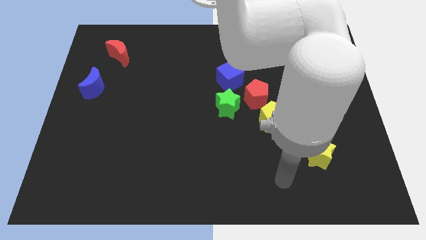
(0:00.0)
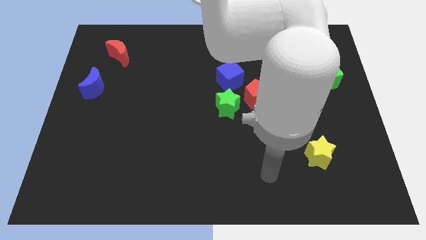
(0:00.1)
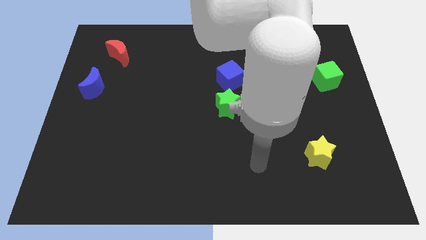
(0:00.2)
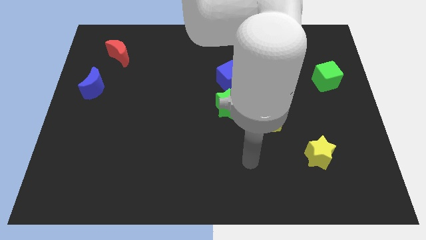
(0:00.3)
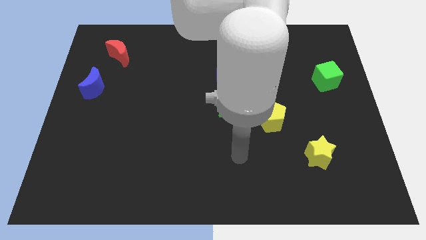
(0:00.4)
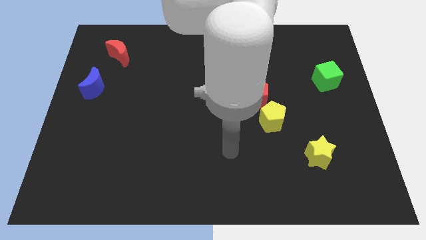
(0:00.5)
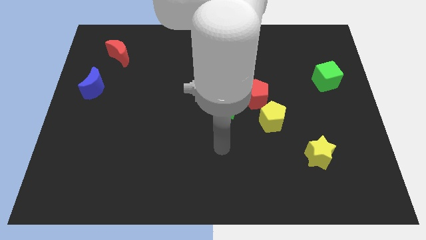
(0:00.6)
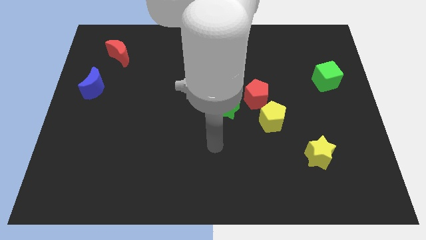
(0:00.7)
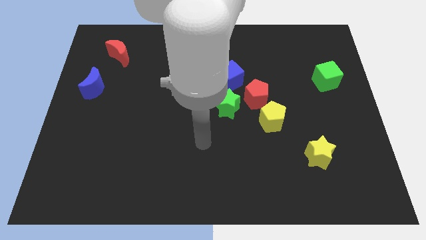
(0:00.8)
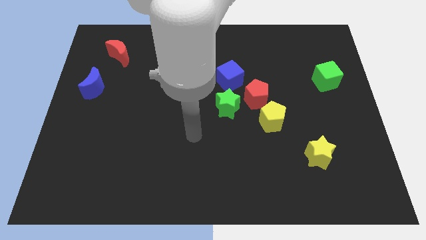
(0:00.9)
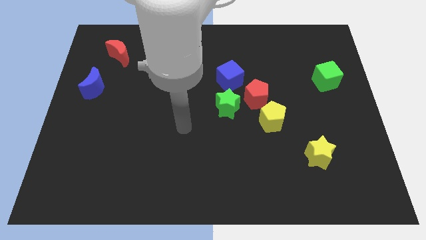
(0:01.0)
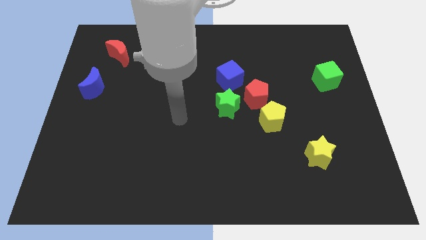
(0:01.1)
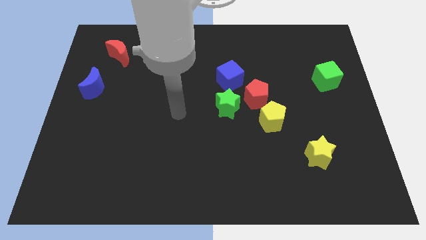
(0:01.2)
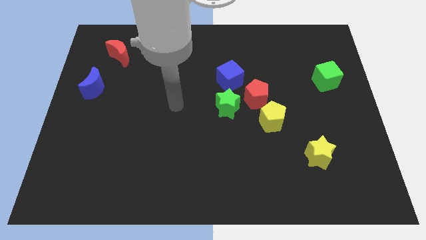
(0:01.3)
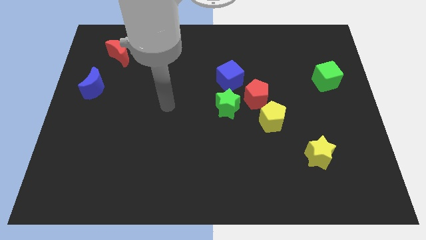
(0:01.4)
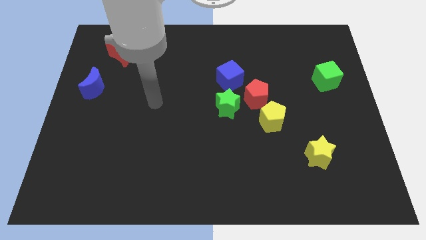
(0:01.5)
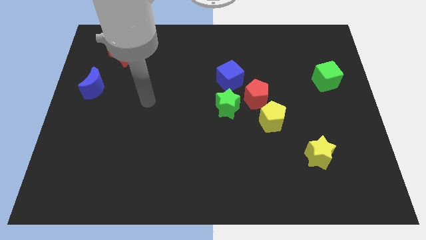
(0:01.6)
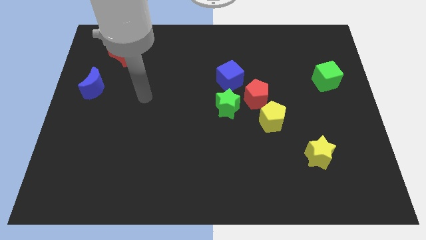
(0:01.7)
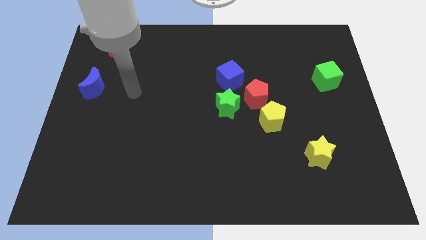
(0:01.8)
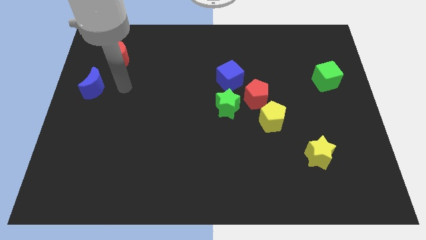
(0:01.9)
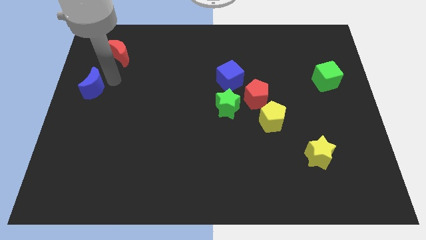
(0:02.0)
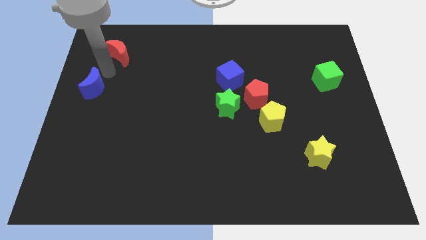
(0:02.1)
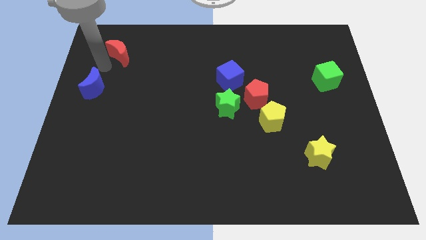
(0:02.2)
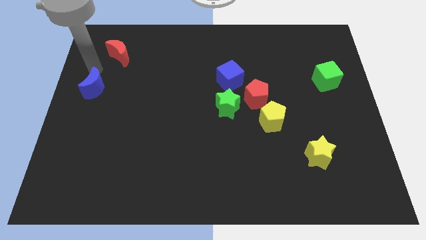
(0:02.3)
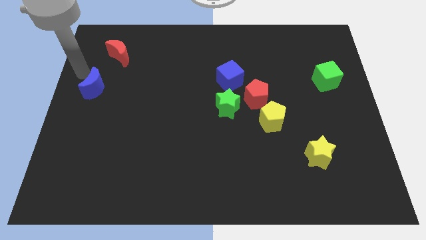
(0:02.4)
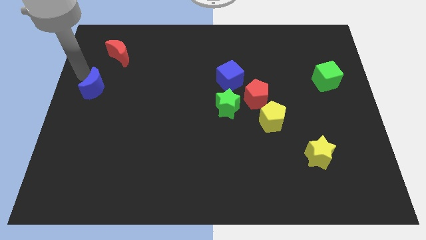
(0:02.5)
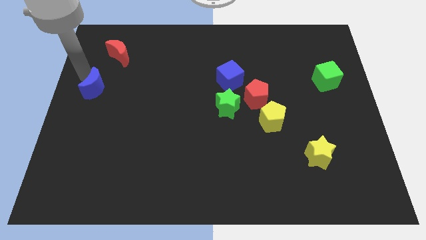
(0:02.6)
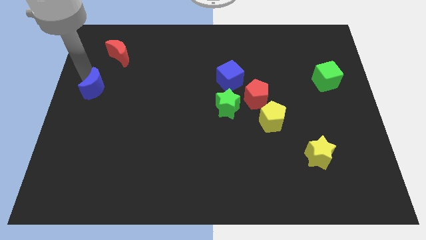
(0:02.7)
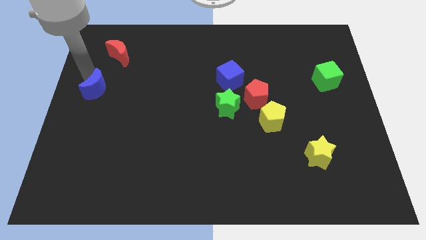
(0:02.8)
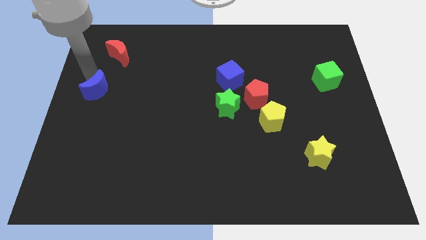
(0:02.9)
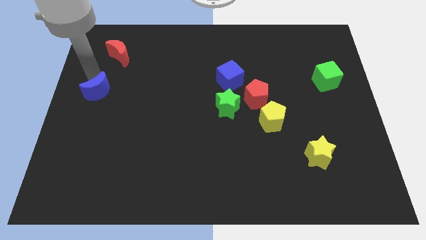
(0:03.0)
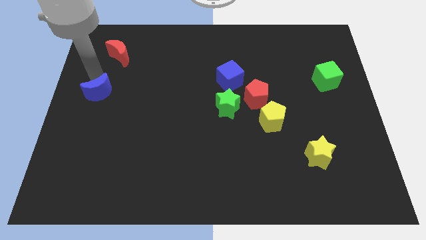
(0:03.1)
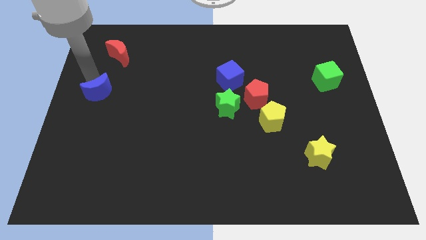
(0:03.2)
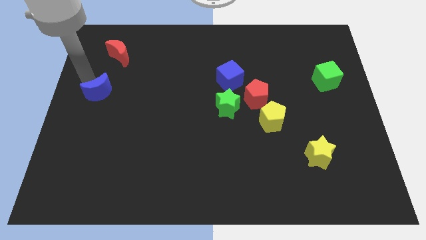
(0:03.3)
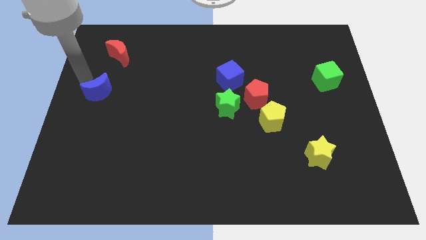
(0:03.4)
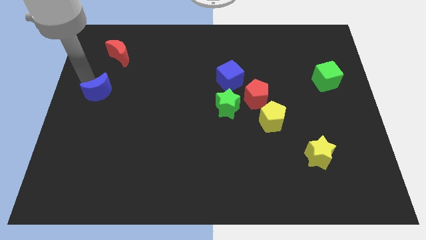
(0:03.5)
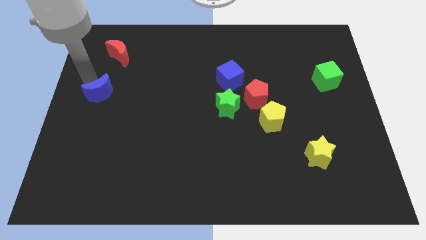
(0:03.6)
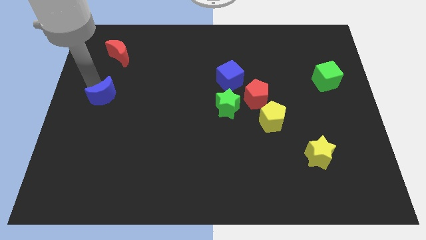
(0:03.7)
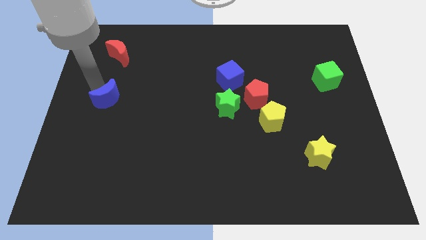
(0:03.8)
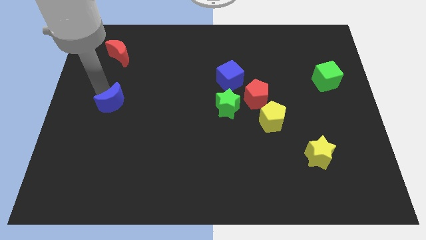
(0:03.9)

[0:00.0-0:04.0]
move the blue moon a little down and right

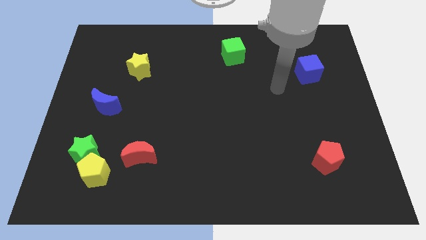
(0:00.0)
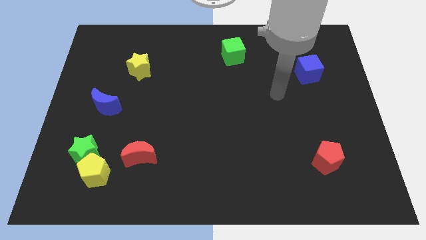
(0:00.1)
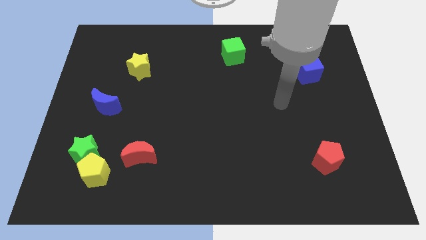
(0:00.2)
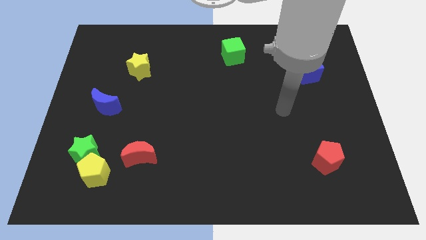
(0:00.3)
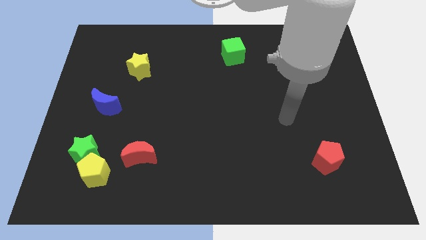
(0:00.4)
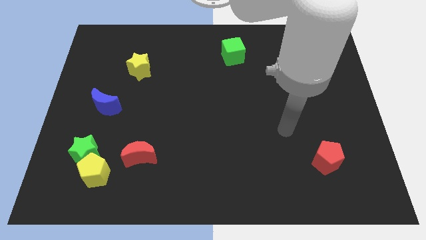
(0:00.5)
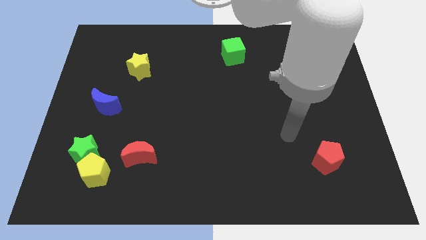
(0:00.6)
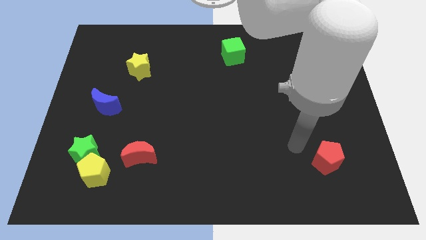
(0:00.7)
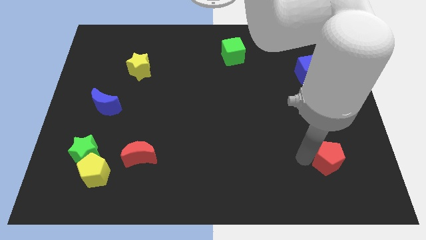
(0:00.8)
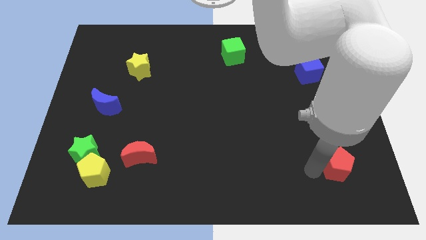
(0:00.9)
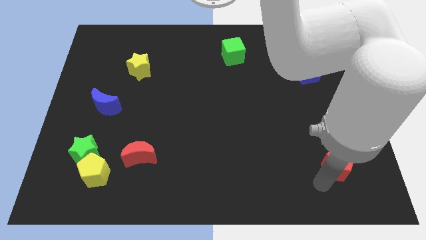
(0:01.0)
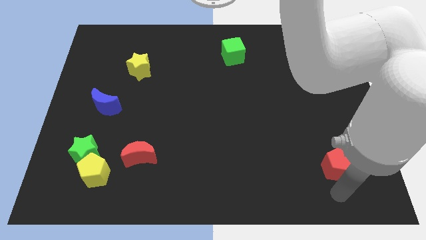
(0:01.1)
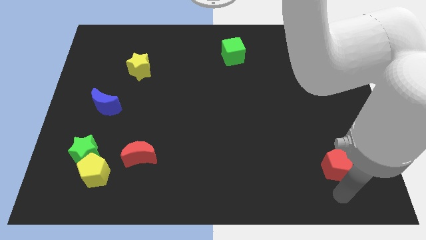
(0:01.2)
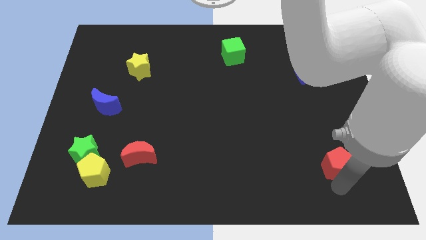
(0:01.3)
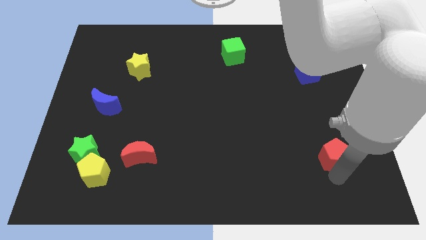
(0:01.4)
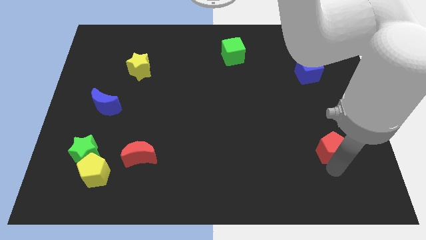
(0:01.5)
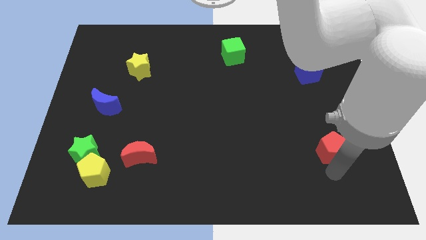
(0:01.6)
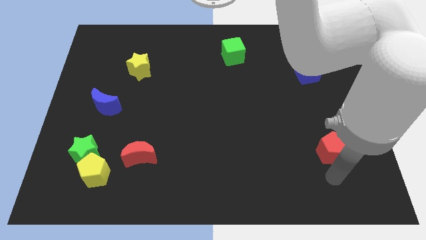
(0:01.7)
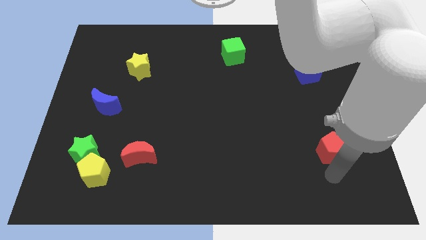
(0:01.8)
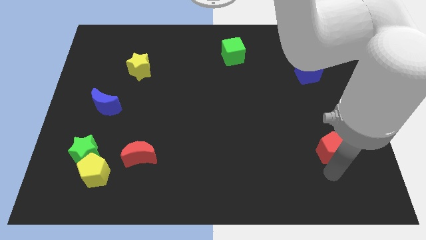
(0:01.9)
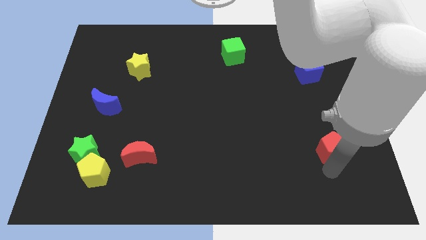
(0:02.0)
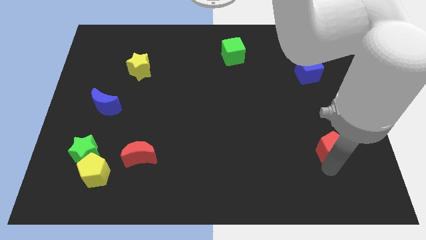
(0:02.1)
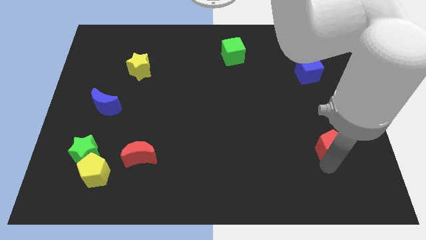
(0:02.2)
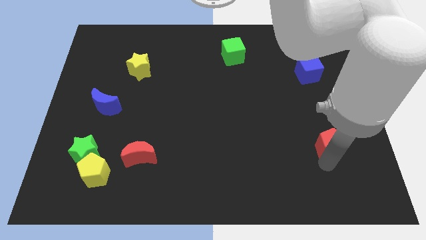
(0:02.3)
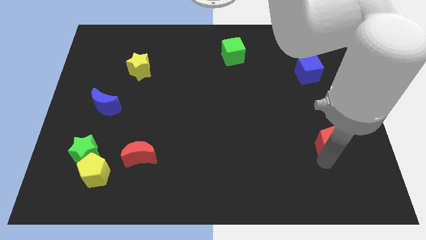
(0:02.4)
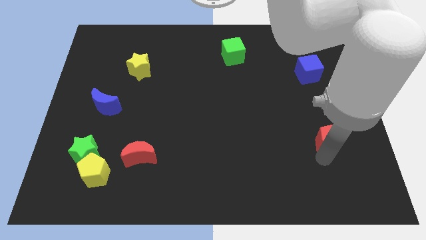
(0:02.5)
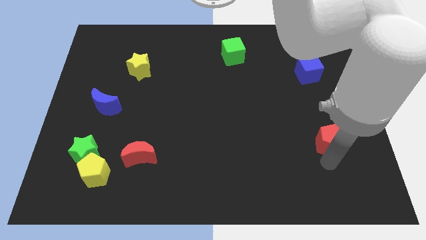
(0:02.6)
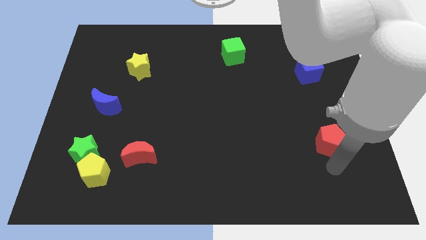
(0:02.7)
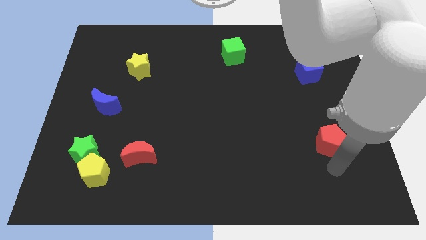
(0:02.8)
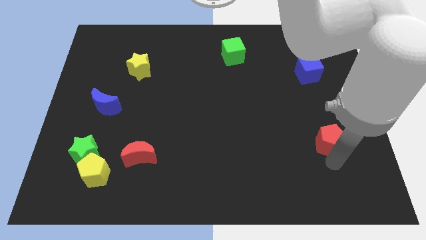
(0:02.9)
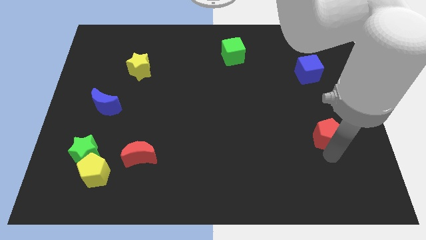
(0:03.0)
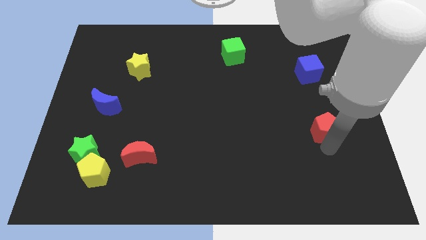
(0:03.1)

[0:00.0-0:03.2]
move the red pentagon a little upwards

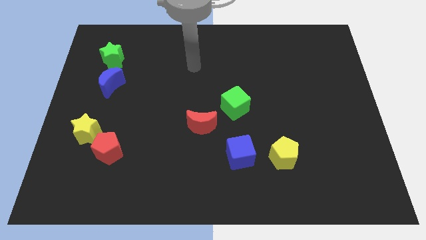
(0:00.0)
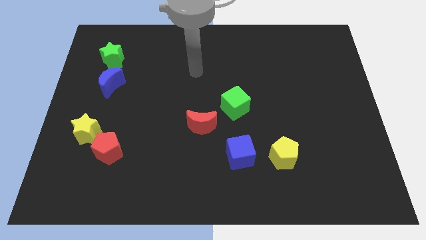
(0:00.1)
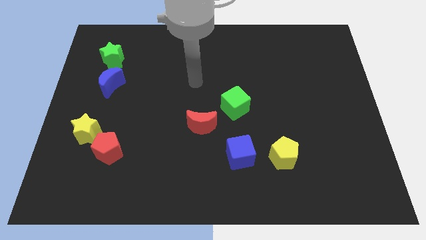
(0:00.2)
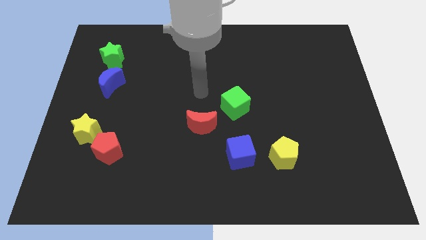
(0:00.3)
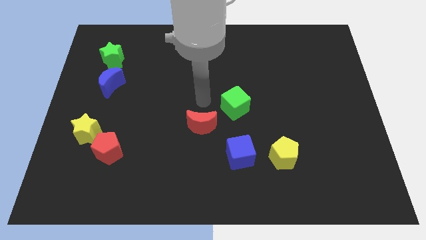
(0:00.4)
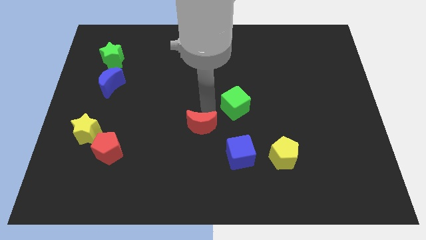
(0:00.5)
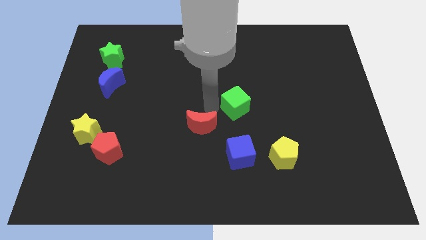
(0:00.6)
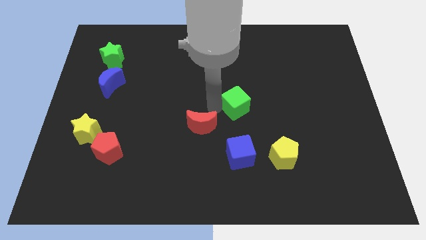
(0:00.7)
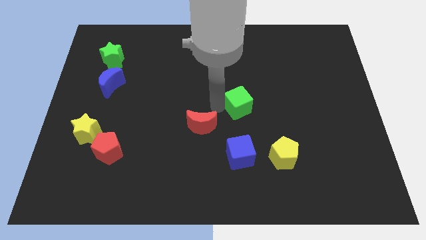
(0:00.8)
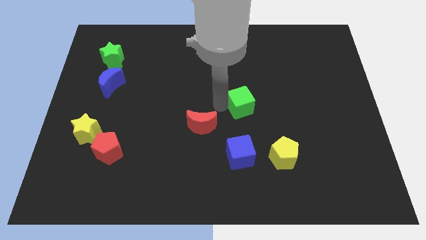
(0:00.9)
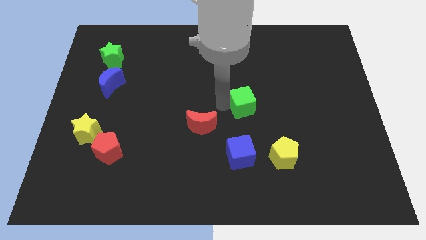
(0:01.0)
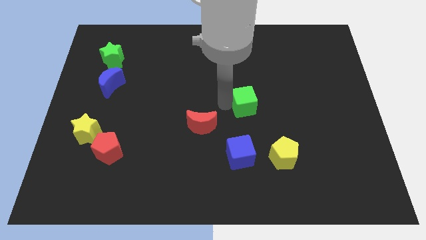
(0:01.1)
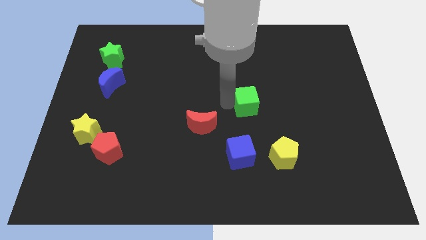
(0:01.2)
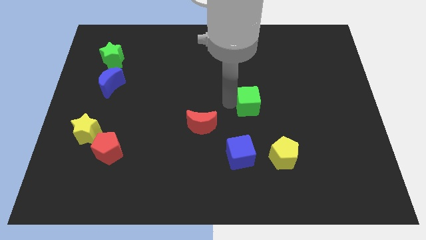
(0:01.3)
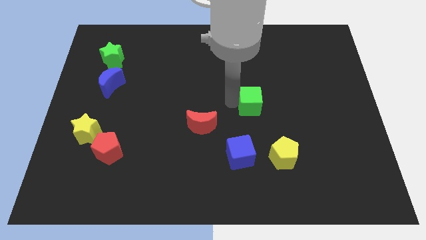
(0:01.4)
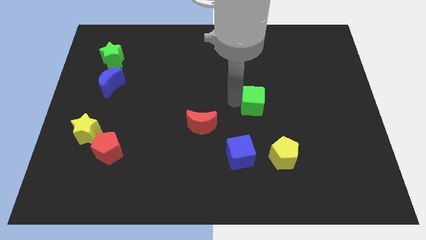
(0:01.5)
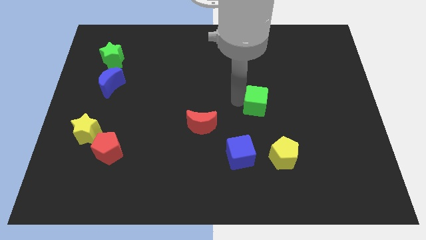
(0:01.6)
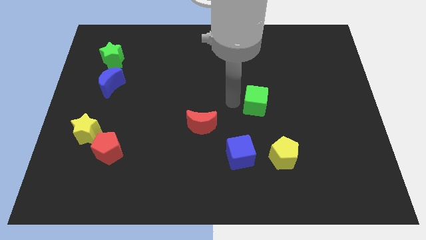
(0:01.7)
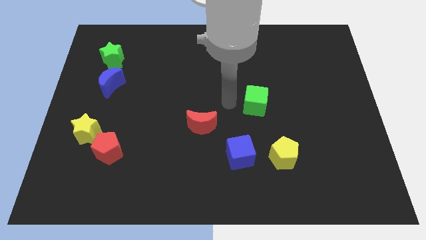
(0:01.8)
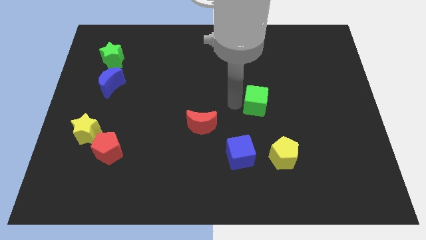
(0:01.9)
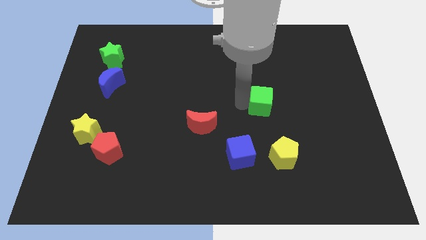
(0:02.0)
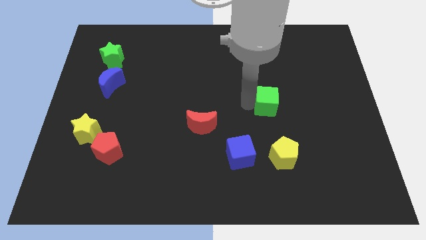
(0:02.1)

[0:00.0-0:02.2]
slightly slide the green cube right
